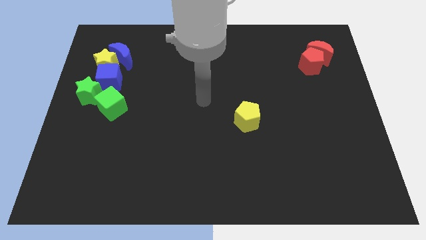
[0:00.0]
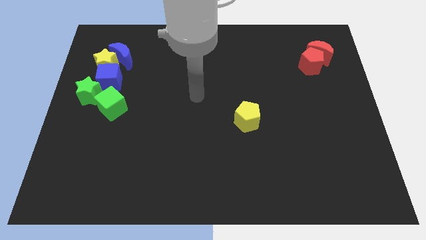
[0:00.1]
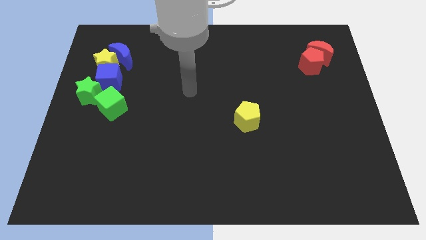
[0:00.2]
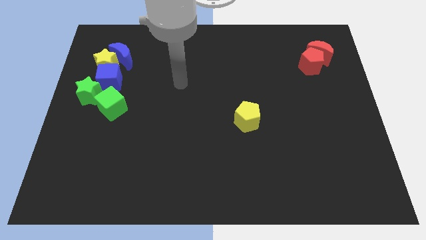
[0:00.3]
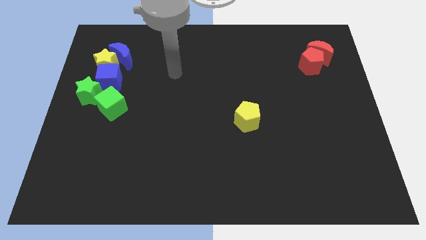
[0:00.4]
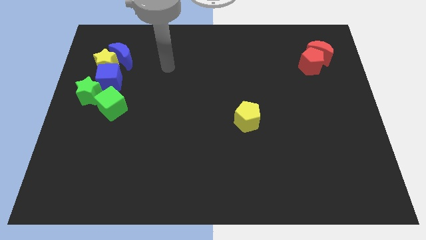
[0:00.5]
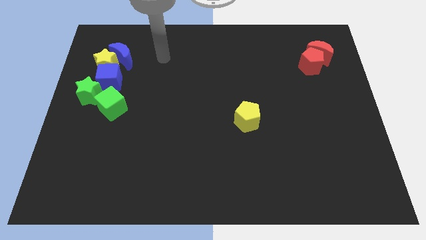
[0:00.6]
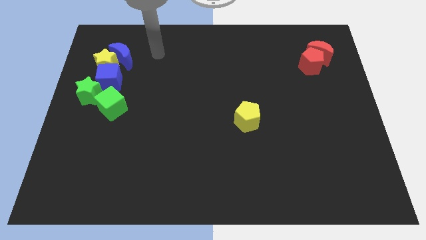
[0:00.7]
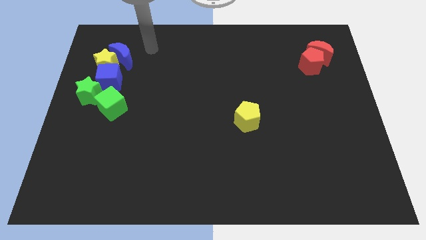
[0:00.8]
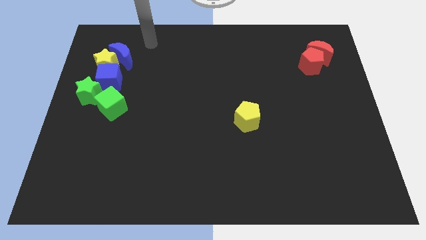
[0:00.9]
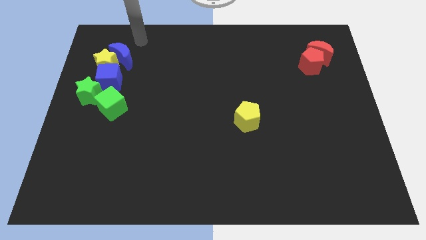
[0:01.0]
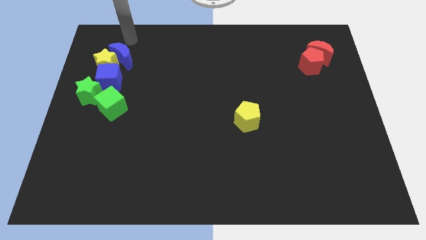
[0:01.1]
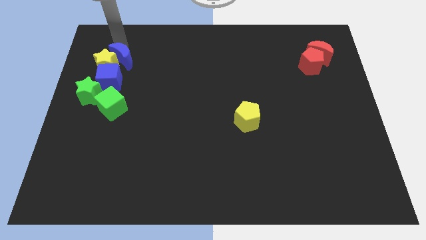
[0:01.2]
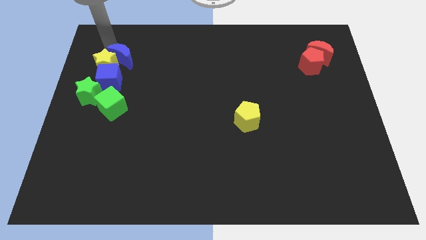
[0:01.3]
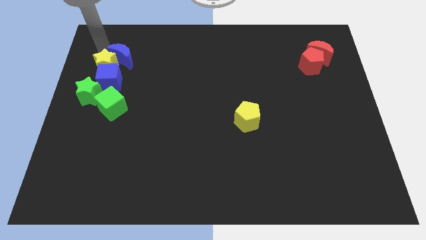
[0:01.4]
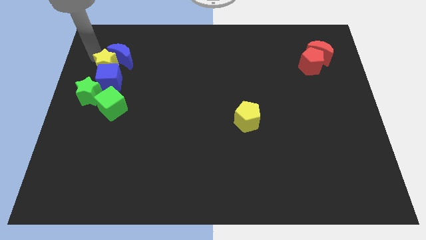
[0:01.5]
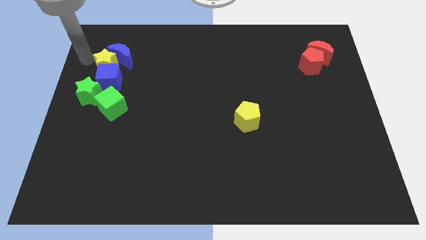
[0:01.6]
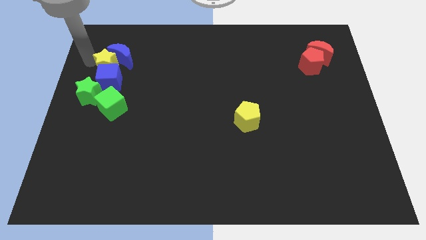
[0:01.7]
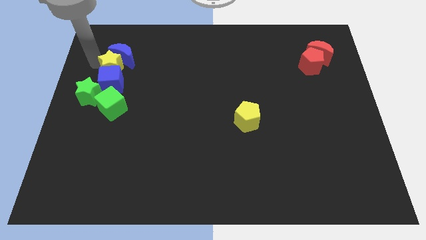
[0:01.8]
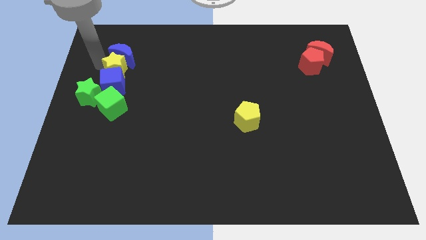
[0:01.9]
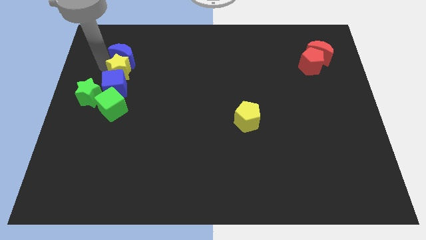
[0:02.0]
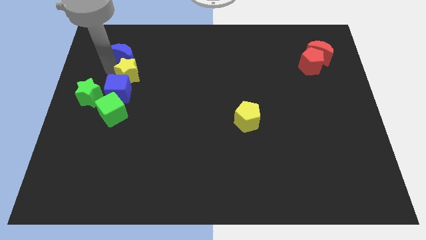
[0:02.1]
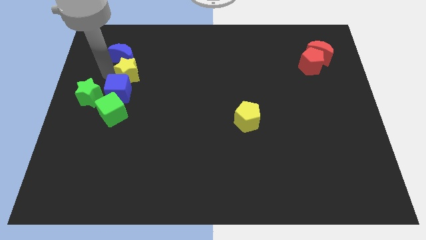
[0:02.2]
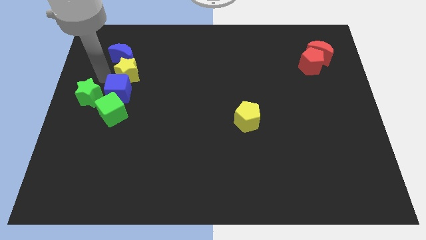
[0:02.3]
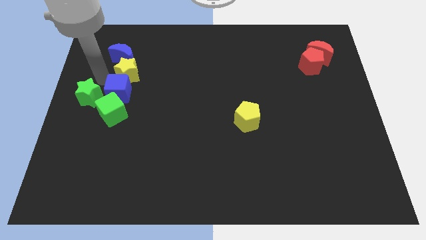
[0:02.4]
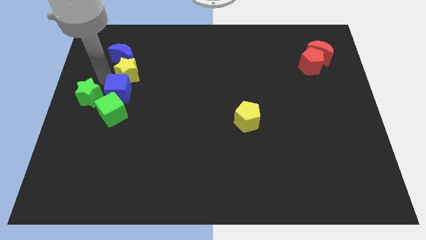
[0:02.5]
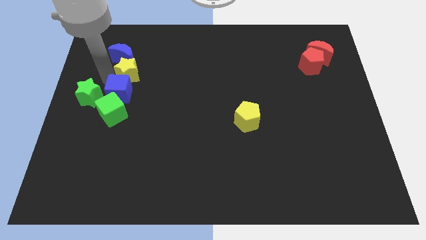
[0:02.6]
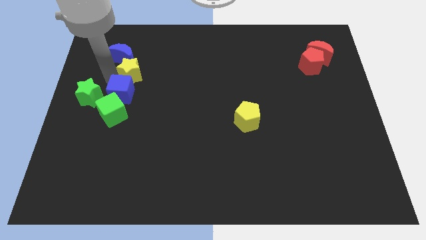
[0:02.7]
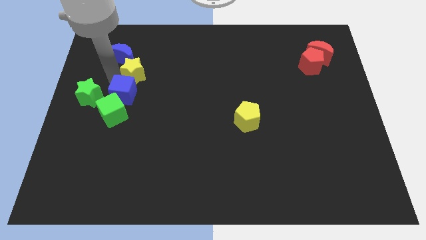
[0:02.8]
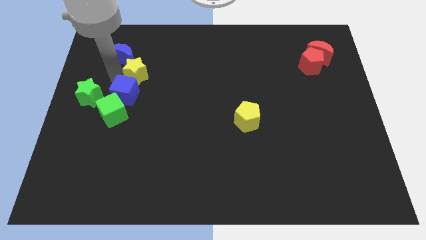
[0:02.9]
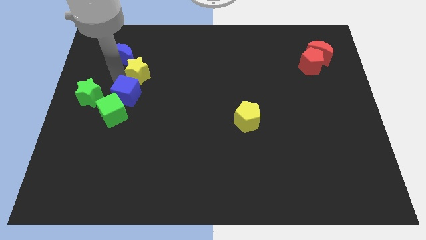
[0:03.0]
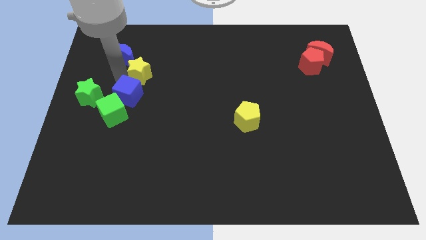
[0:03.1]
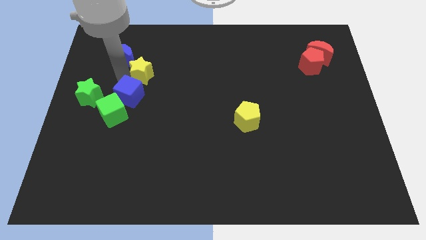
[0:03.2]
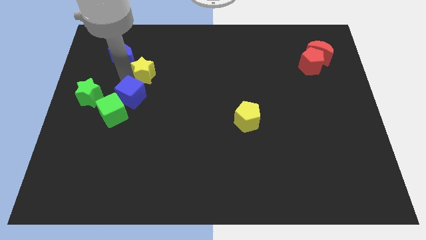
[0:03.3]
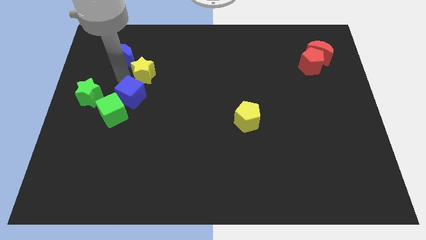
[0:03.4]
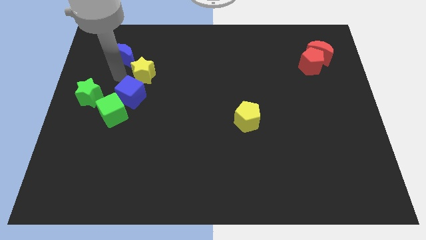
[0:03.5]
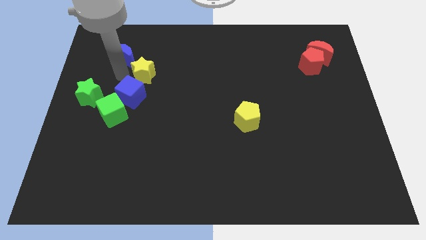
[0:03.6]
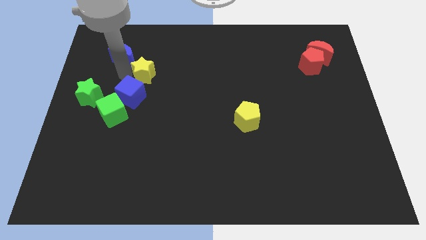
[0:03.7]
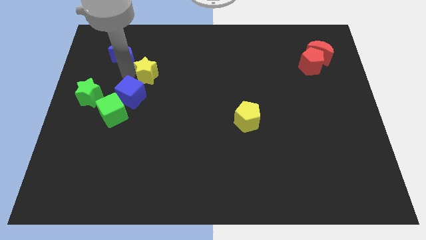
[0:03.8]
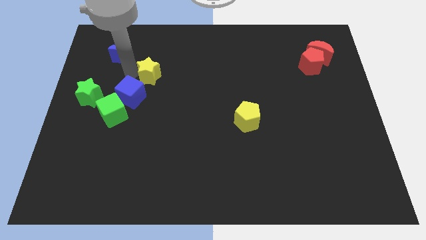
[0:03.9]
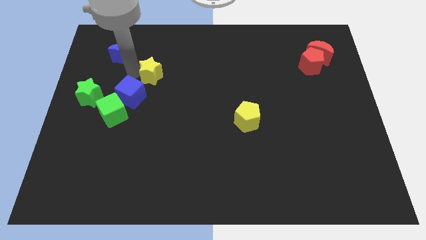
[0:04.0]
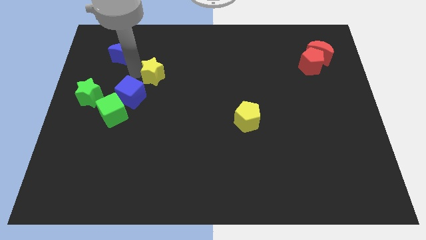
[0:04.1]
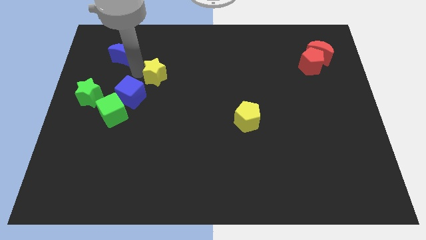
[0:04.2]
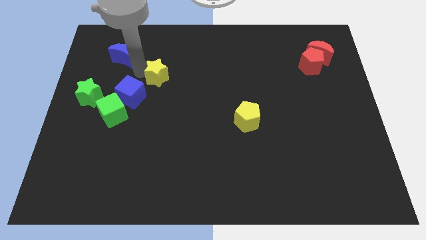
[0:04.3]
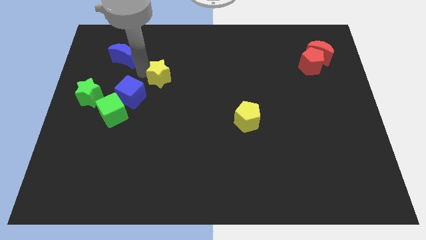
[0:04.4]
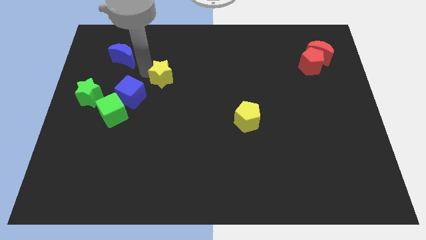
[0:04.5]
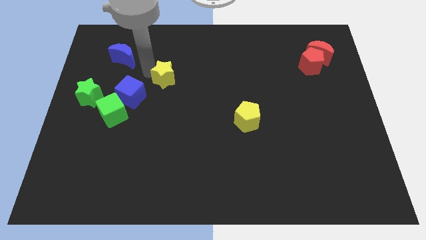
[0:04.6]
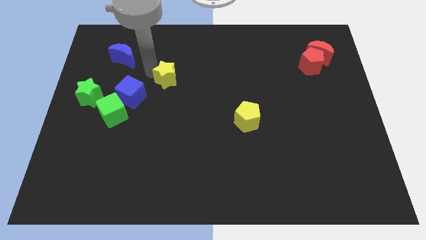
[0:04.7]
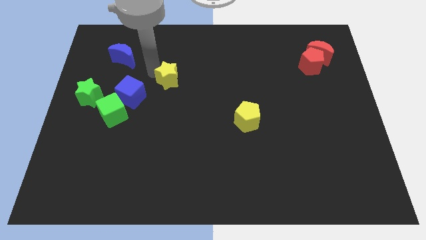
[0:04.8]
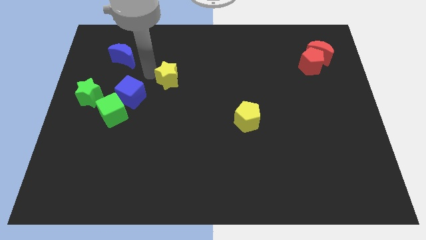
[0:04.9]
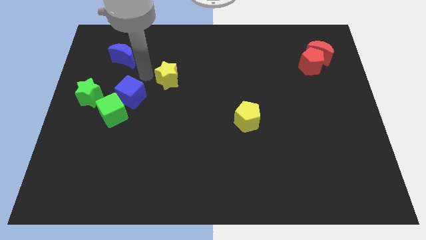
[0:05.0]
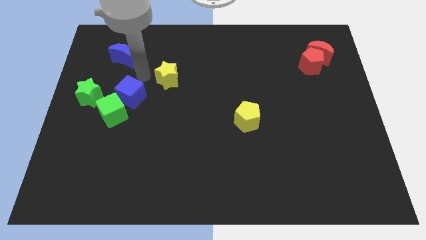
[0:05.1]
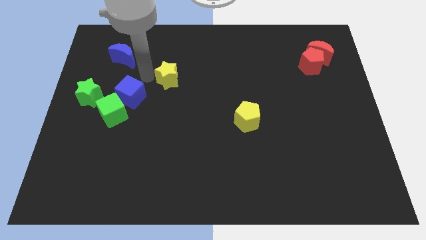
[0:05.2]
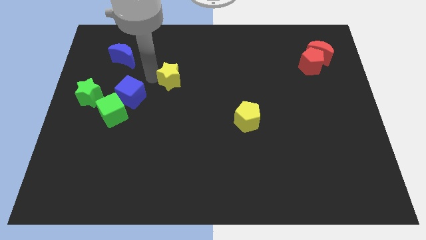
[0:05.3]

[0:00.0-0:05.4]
push the yellow star to the middle

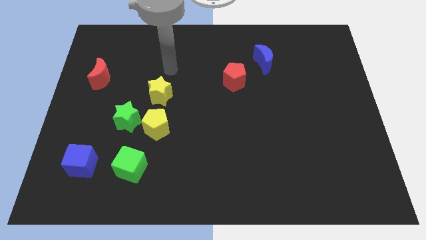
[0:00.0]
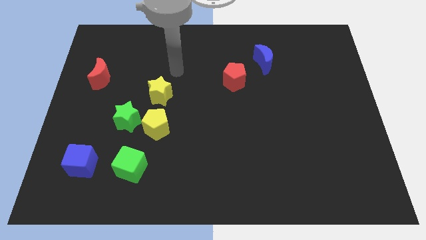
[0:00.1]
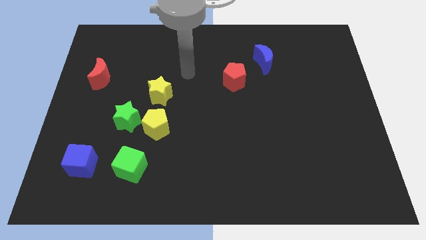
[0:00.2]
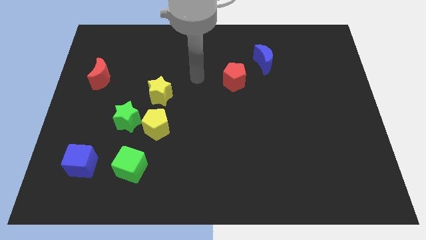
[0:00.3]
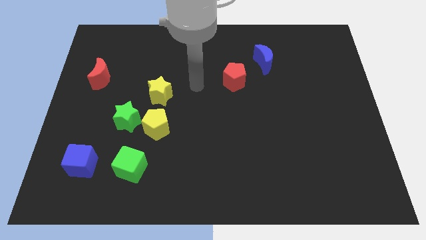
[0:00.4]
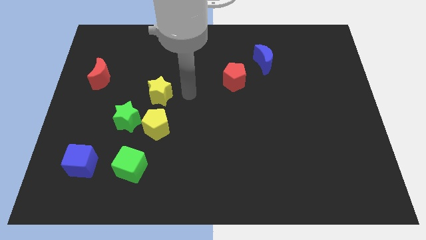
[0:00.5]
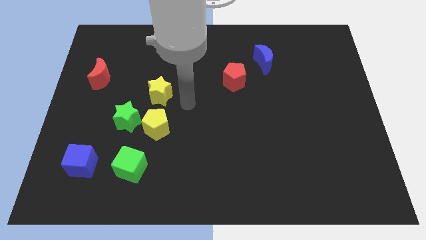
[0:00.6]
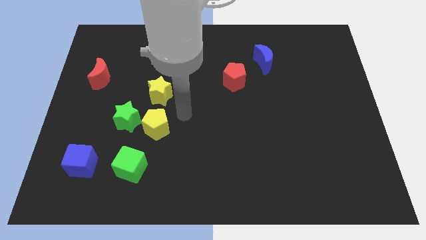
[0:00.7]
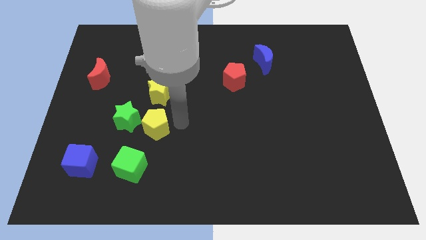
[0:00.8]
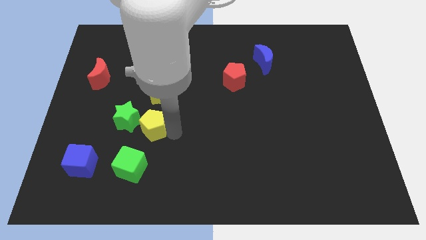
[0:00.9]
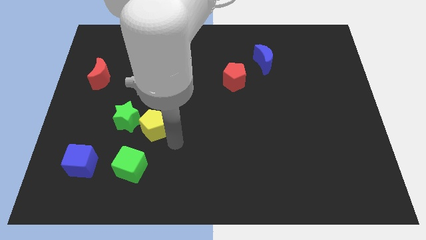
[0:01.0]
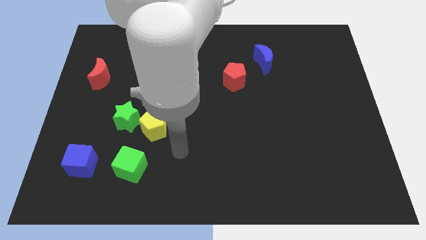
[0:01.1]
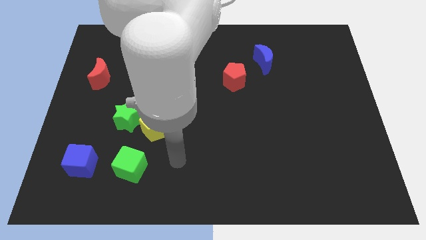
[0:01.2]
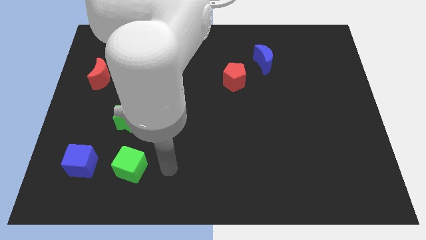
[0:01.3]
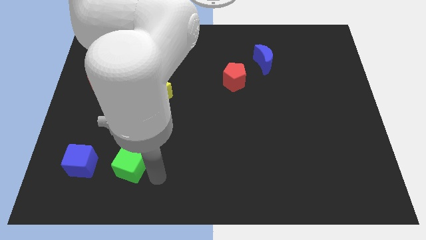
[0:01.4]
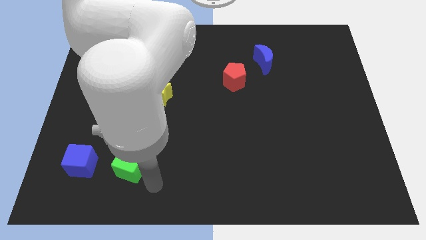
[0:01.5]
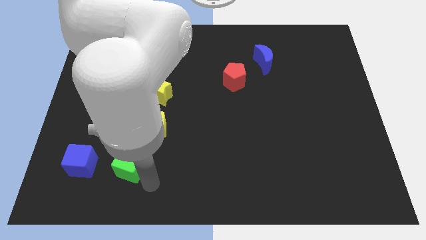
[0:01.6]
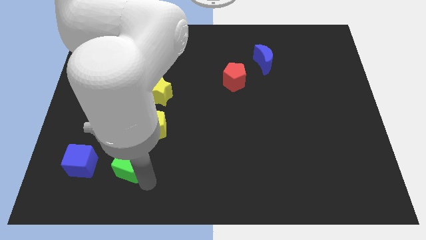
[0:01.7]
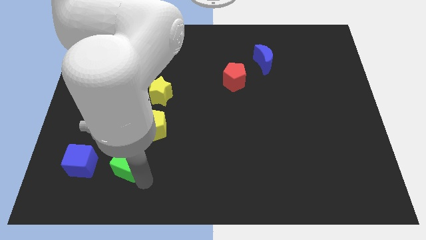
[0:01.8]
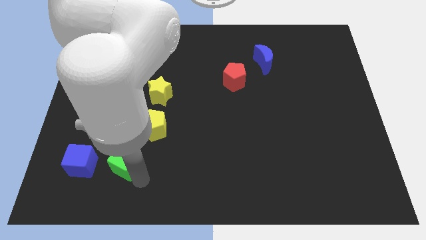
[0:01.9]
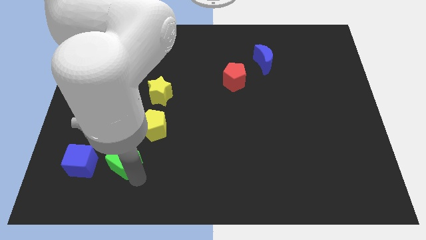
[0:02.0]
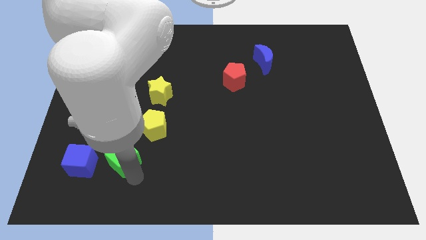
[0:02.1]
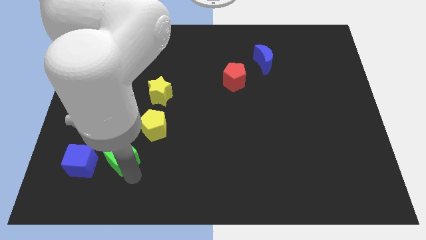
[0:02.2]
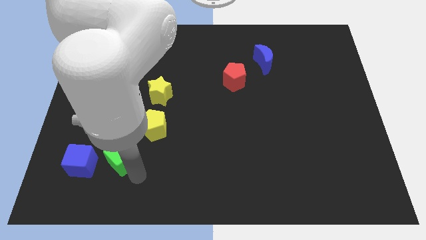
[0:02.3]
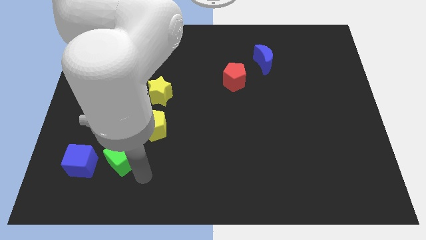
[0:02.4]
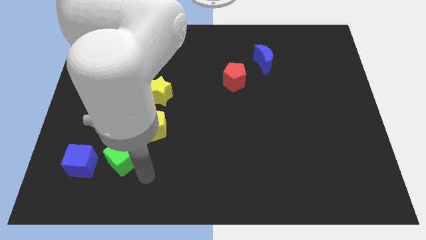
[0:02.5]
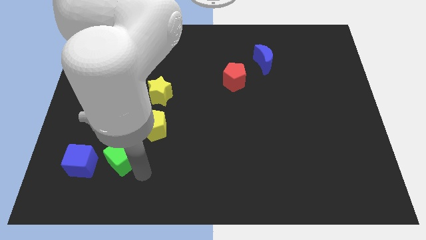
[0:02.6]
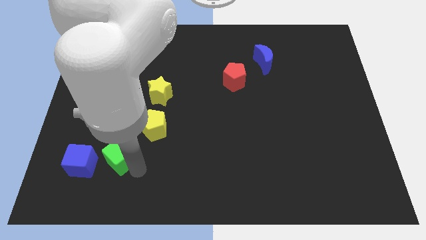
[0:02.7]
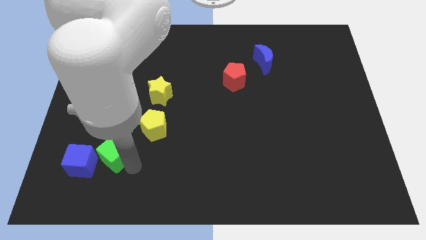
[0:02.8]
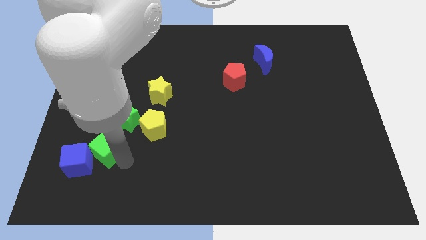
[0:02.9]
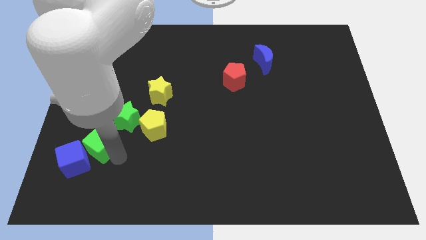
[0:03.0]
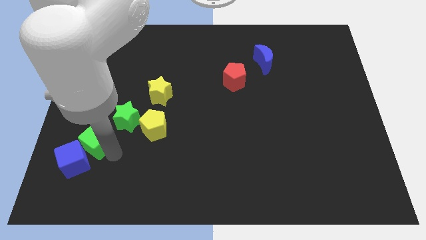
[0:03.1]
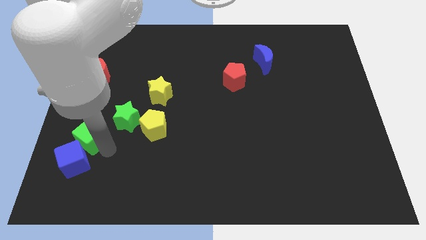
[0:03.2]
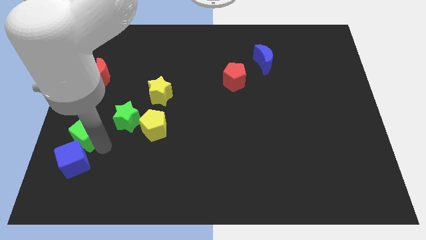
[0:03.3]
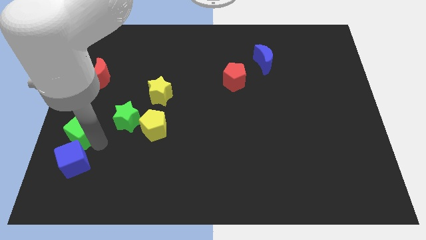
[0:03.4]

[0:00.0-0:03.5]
slide the green cube to the left side
